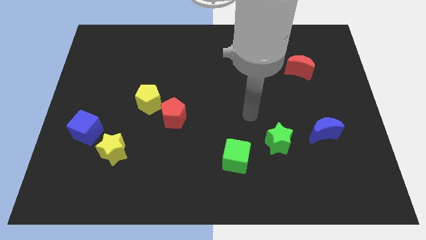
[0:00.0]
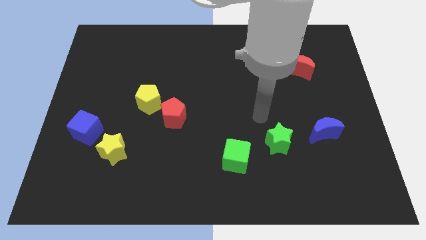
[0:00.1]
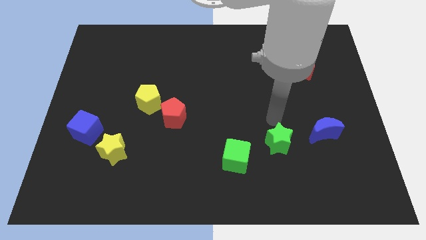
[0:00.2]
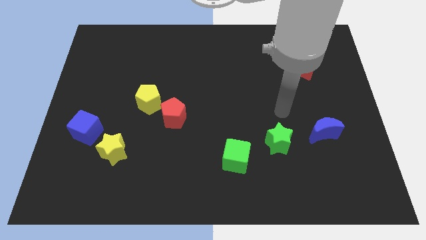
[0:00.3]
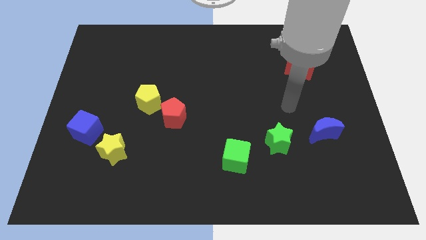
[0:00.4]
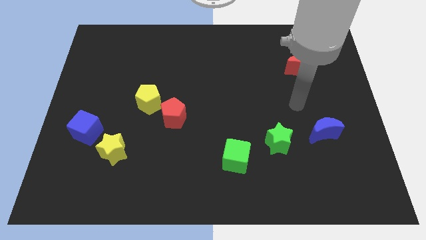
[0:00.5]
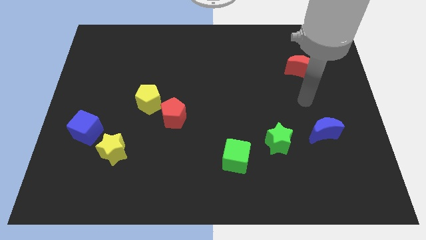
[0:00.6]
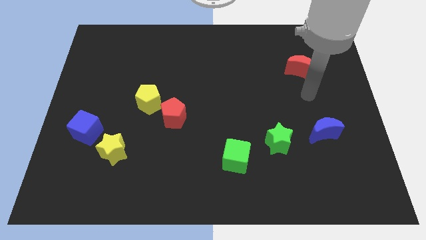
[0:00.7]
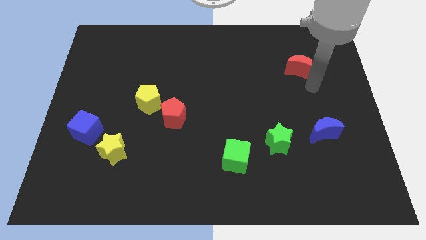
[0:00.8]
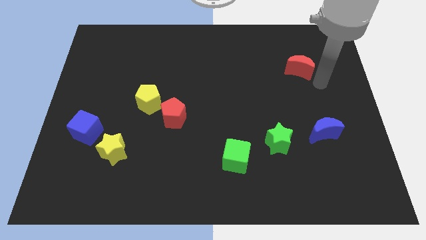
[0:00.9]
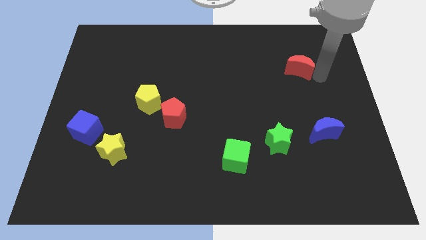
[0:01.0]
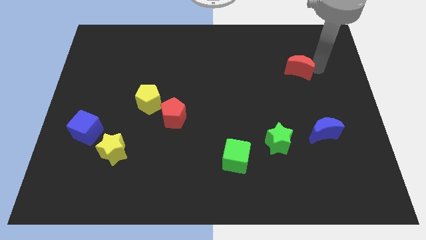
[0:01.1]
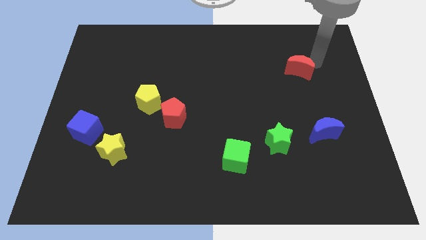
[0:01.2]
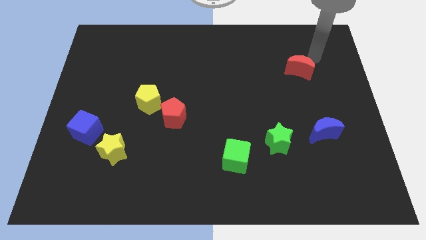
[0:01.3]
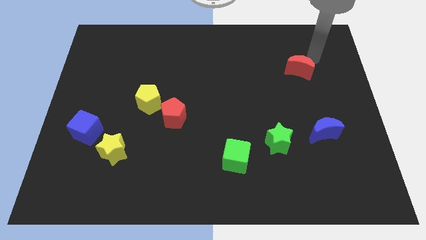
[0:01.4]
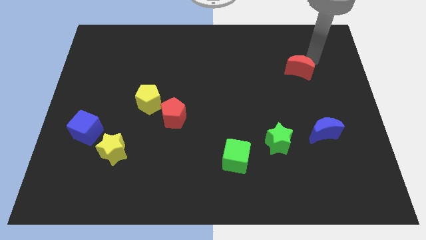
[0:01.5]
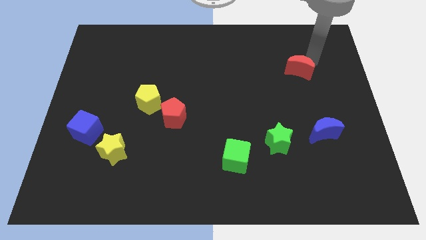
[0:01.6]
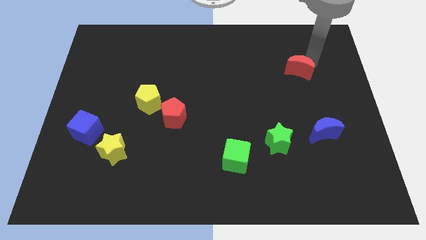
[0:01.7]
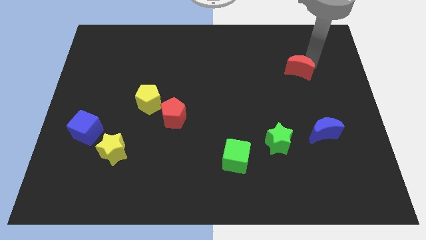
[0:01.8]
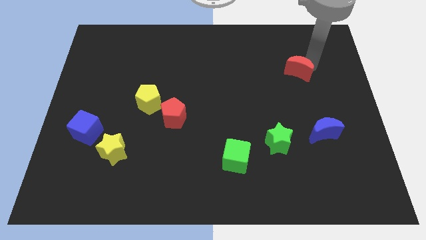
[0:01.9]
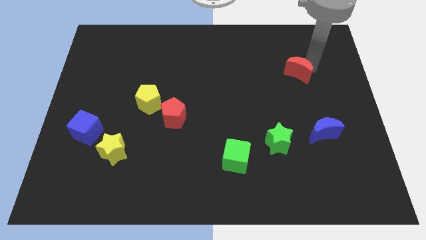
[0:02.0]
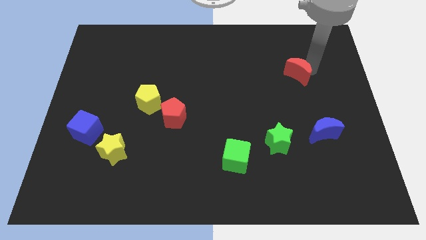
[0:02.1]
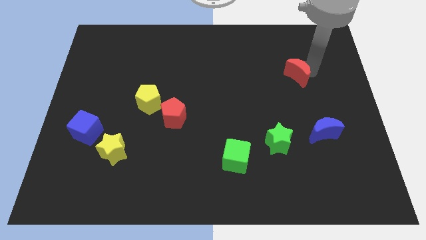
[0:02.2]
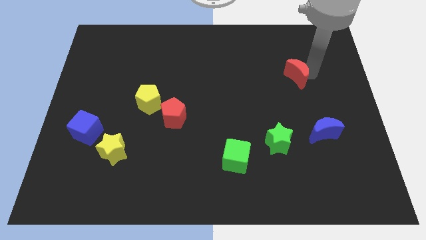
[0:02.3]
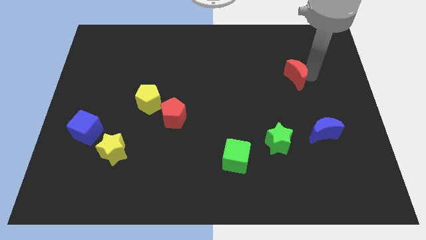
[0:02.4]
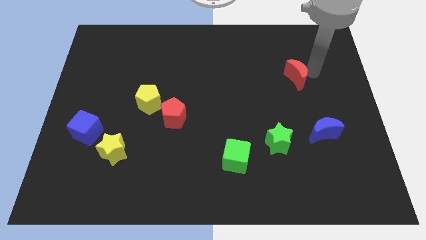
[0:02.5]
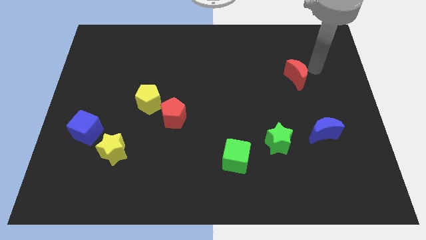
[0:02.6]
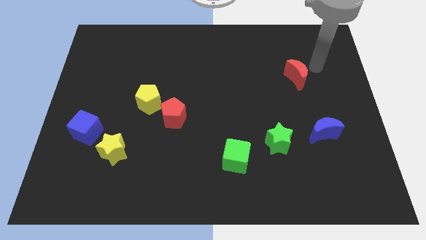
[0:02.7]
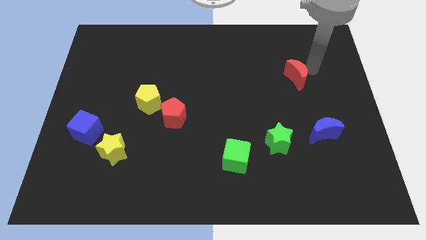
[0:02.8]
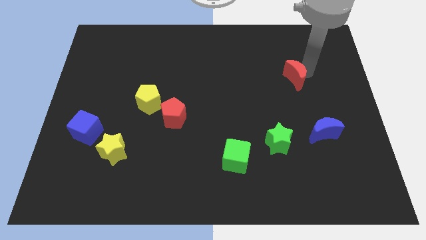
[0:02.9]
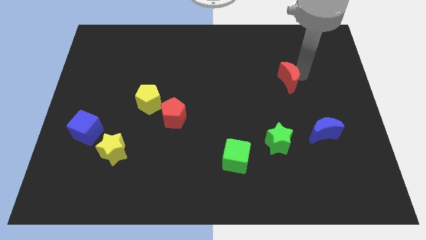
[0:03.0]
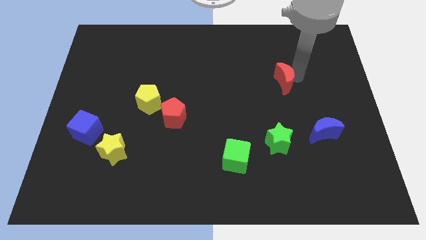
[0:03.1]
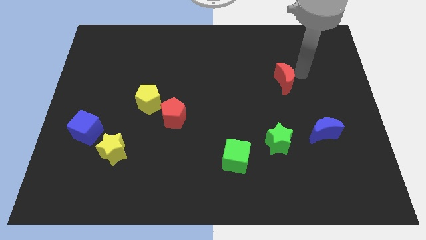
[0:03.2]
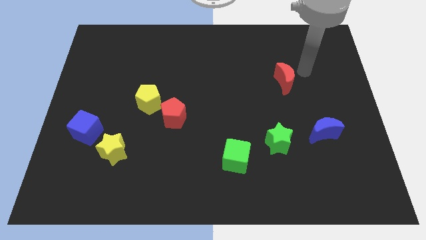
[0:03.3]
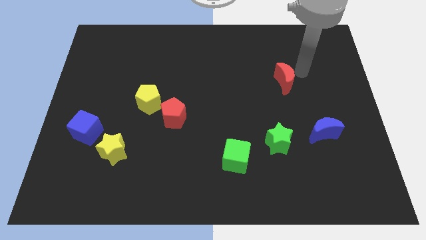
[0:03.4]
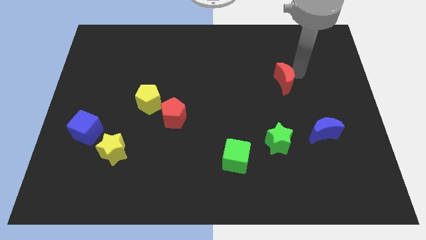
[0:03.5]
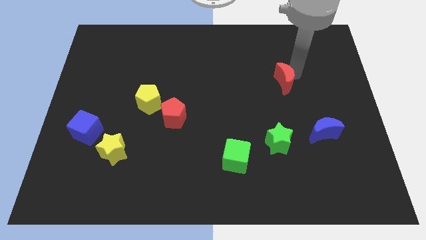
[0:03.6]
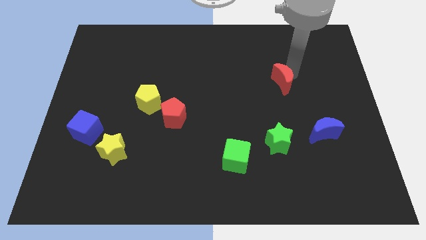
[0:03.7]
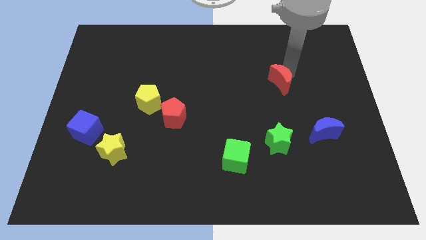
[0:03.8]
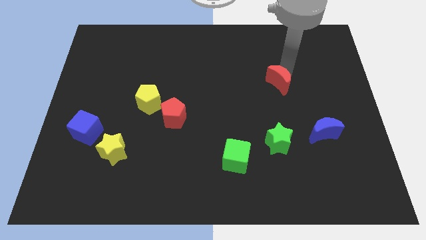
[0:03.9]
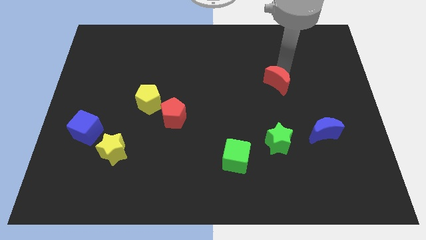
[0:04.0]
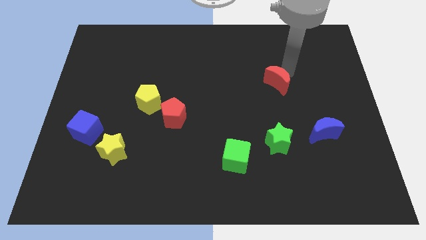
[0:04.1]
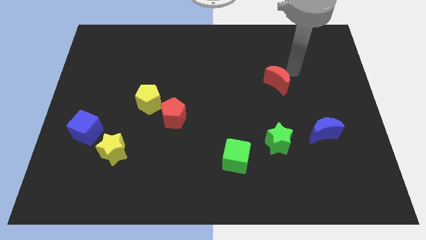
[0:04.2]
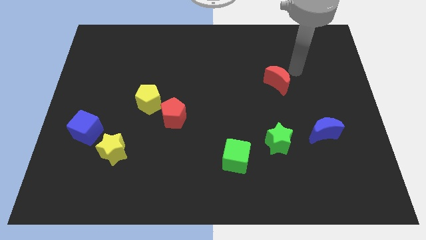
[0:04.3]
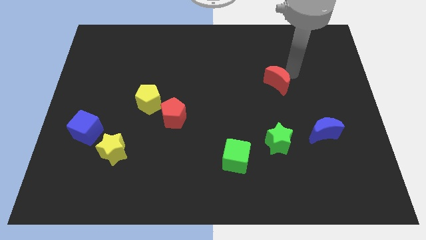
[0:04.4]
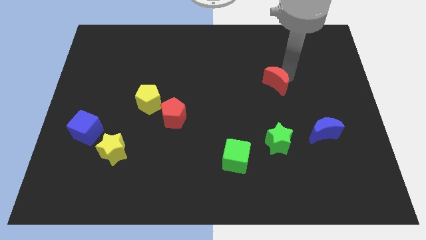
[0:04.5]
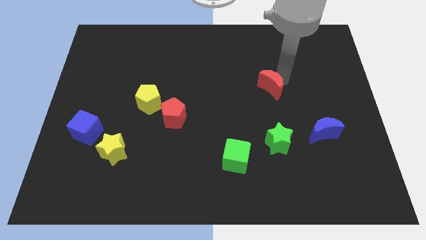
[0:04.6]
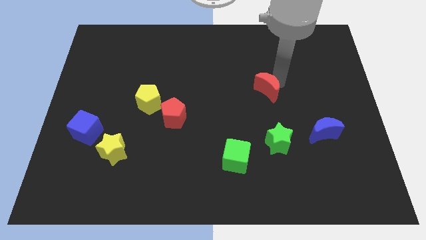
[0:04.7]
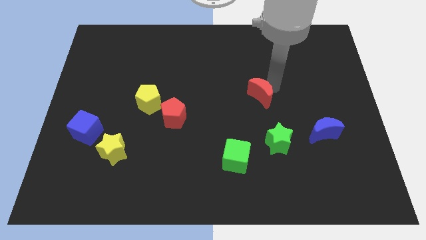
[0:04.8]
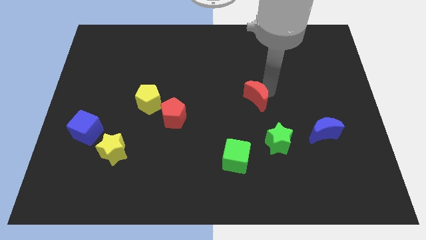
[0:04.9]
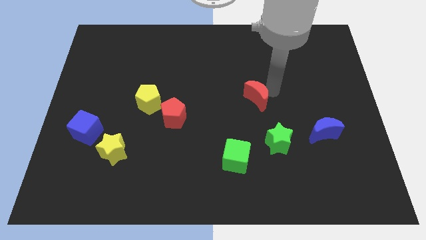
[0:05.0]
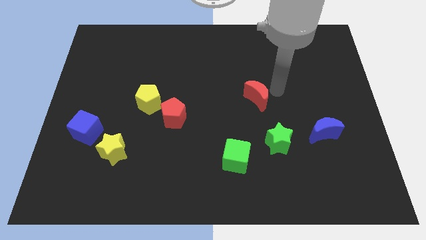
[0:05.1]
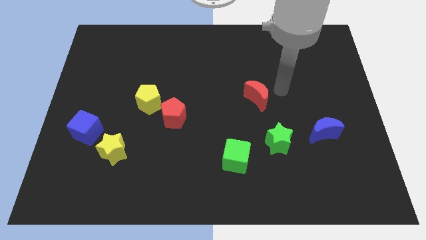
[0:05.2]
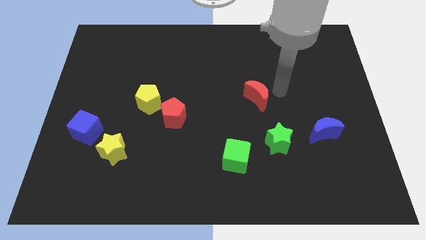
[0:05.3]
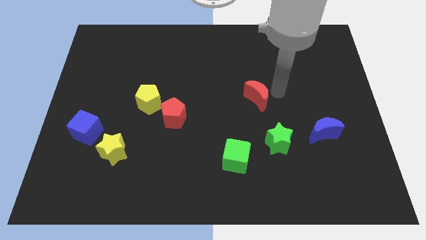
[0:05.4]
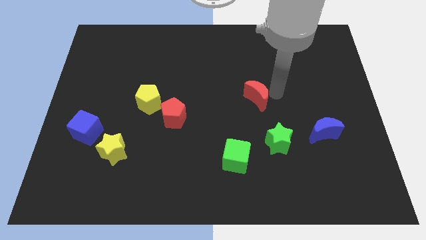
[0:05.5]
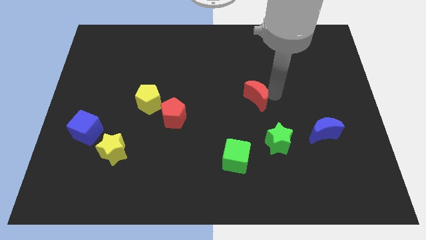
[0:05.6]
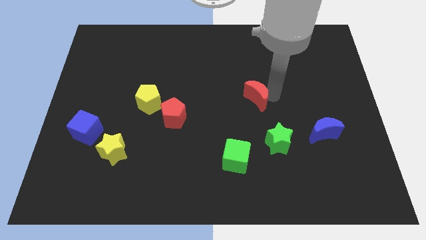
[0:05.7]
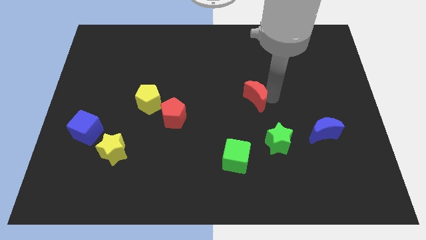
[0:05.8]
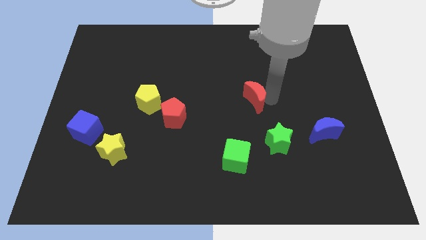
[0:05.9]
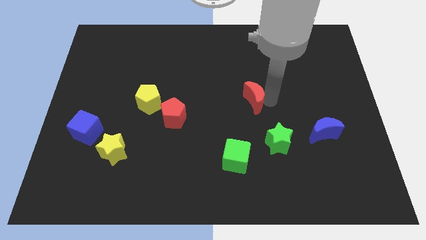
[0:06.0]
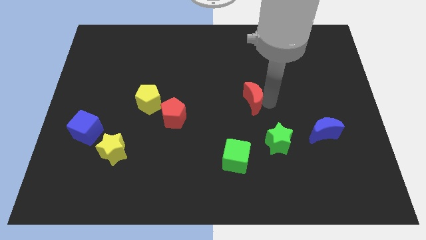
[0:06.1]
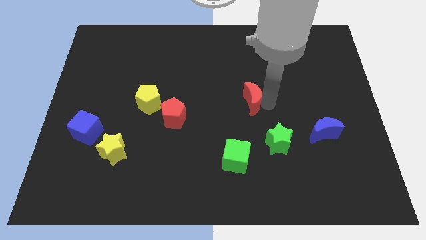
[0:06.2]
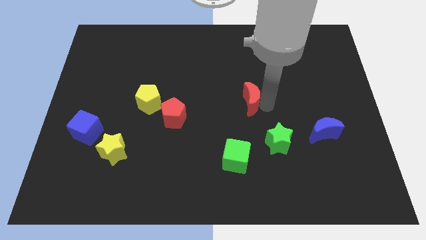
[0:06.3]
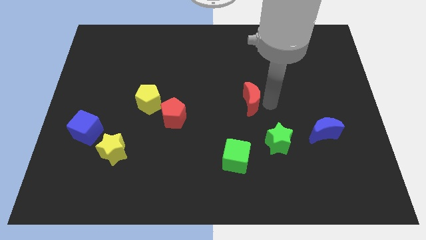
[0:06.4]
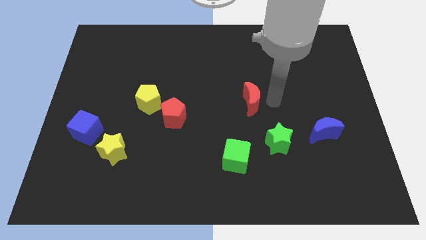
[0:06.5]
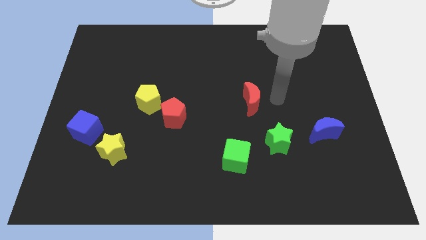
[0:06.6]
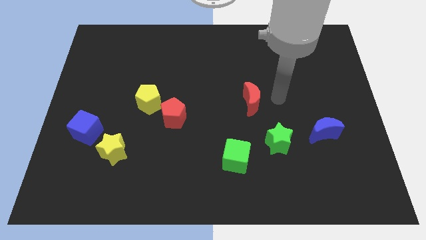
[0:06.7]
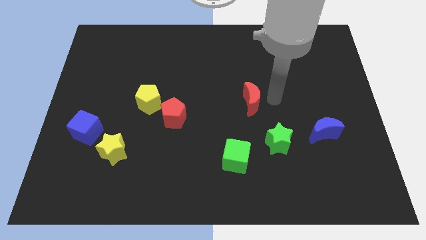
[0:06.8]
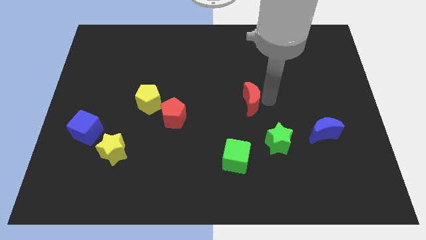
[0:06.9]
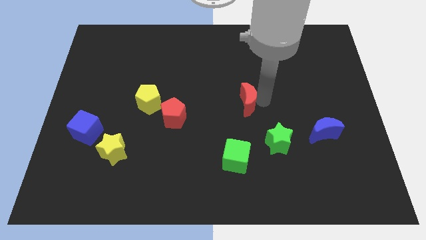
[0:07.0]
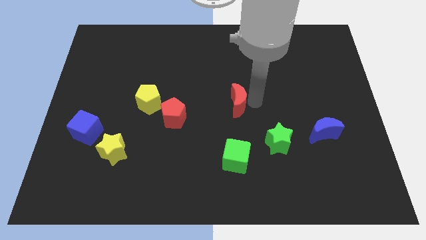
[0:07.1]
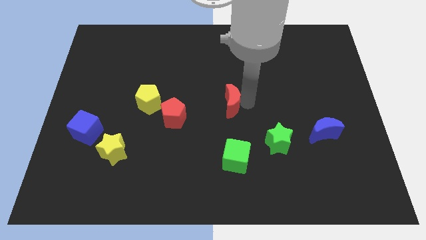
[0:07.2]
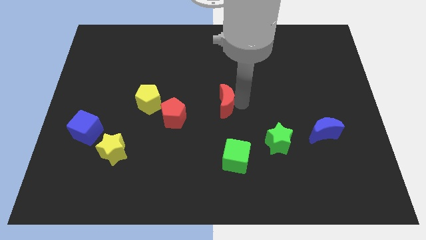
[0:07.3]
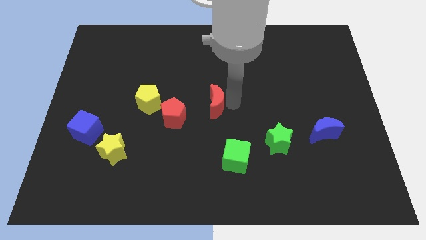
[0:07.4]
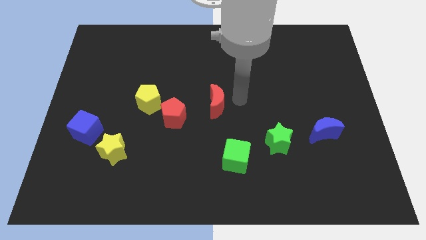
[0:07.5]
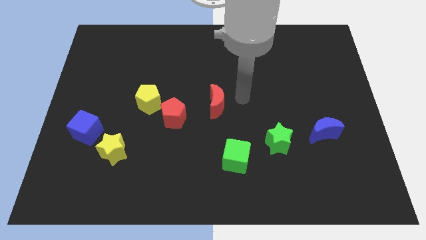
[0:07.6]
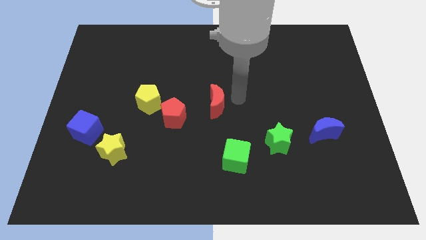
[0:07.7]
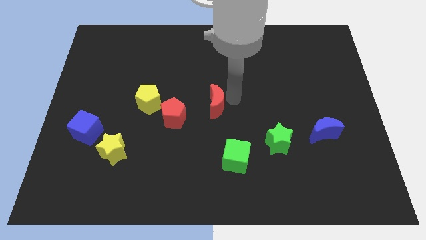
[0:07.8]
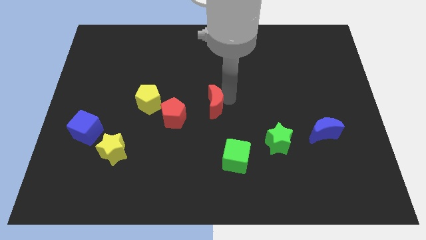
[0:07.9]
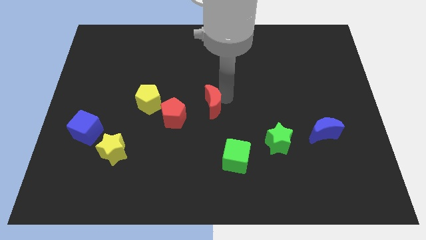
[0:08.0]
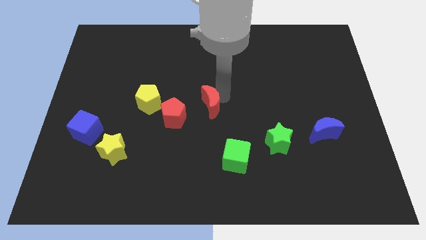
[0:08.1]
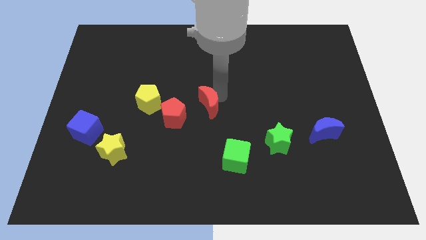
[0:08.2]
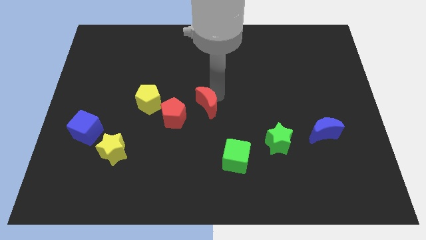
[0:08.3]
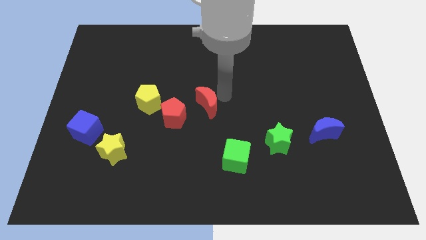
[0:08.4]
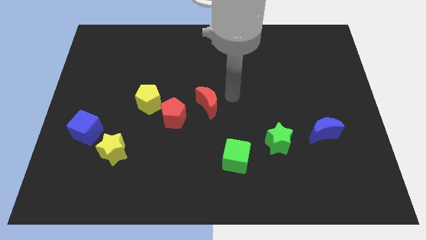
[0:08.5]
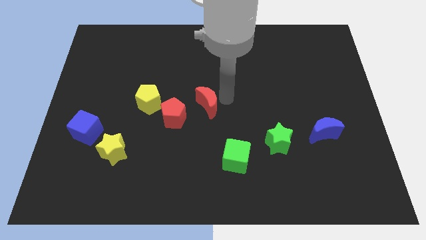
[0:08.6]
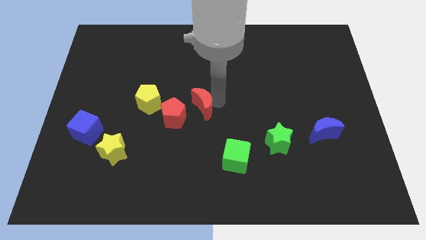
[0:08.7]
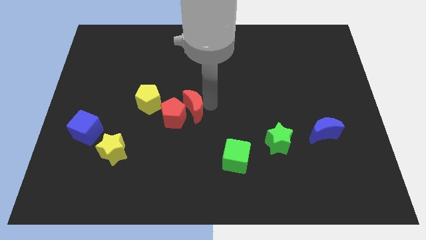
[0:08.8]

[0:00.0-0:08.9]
slide the red moon next to the red pentagon
